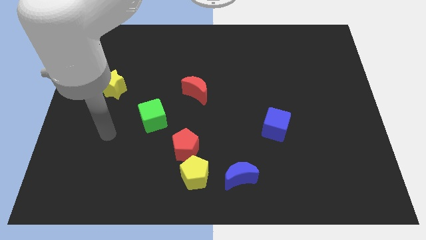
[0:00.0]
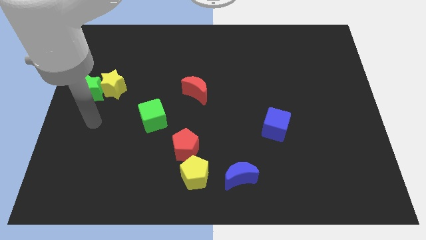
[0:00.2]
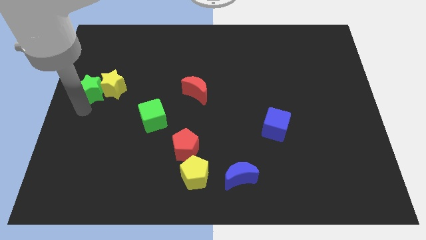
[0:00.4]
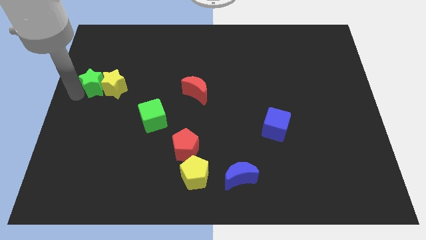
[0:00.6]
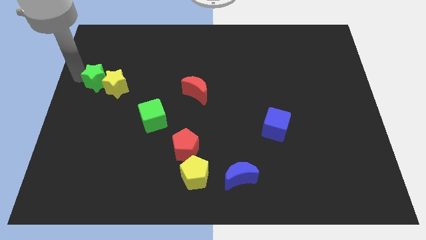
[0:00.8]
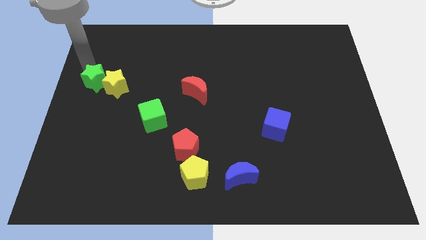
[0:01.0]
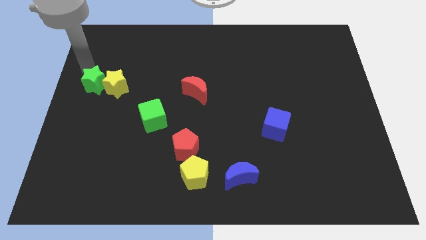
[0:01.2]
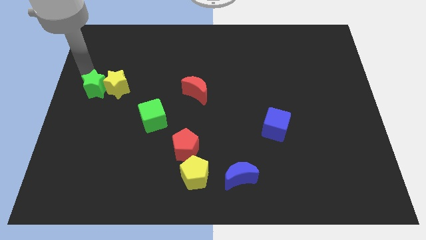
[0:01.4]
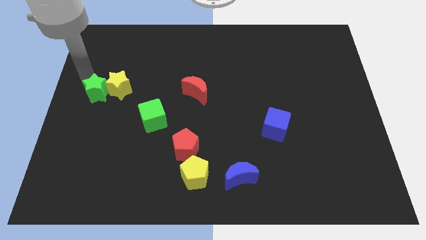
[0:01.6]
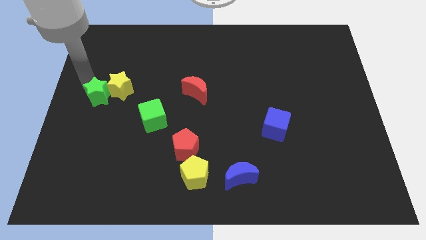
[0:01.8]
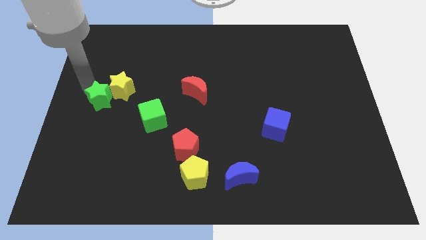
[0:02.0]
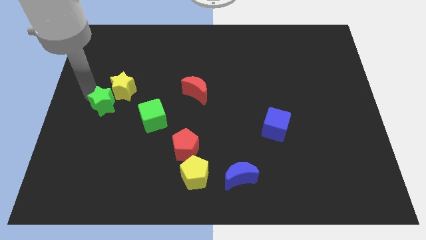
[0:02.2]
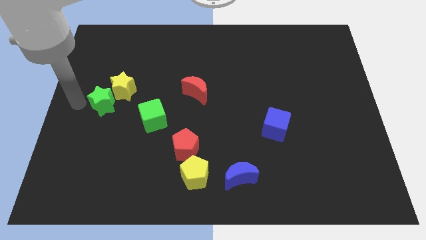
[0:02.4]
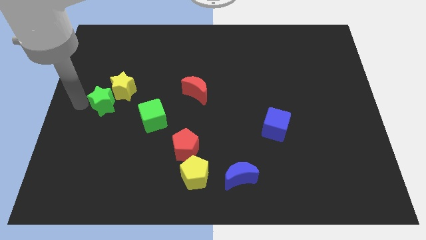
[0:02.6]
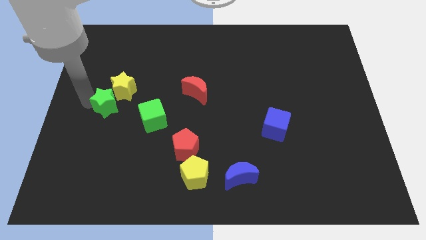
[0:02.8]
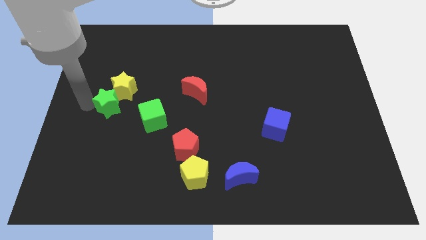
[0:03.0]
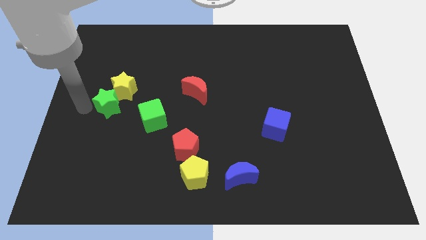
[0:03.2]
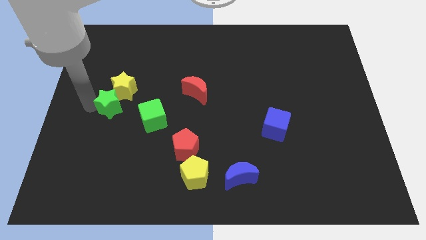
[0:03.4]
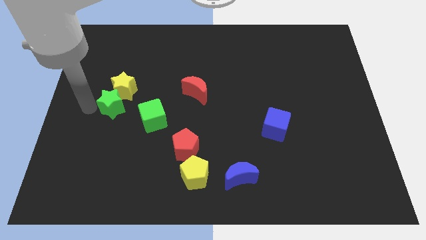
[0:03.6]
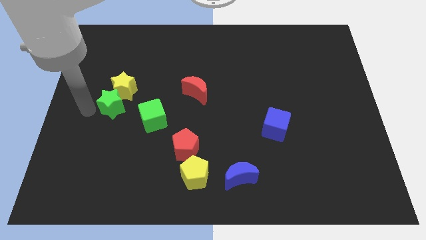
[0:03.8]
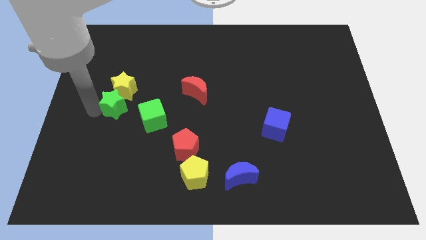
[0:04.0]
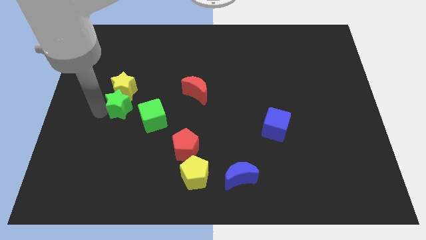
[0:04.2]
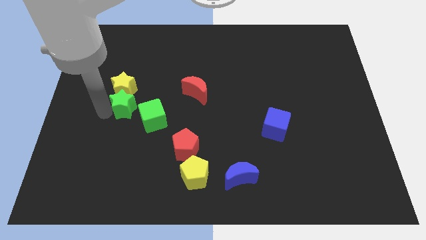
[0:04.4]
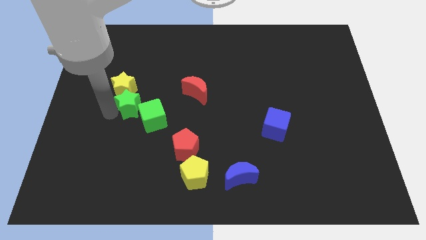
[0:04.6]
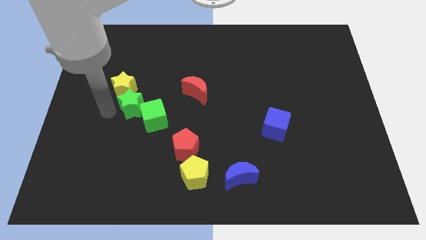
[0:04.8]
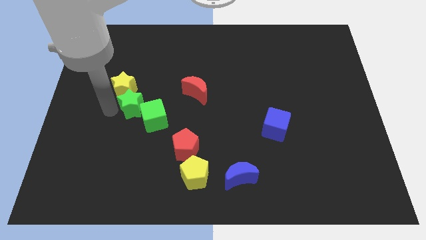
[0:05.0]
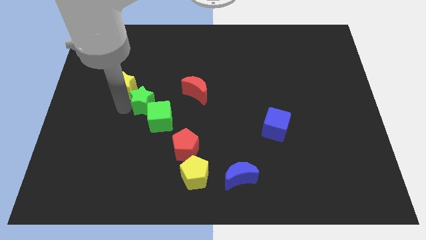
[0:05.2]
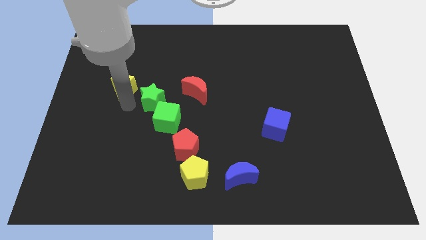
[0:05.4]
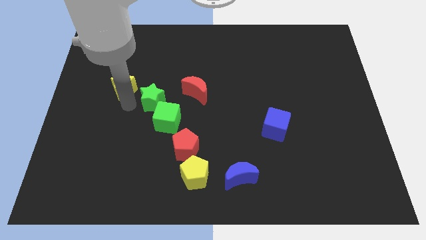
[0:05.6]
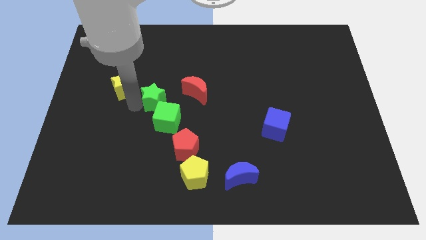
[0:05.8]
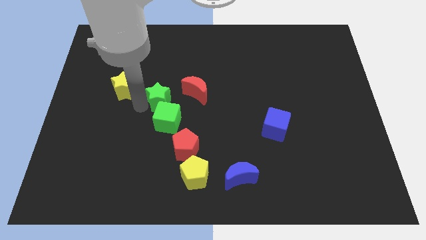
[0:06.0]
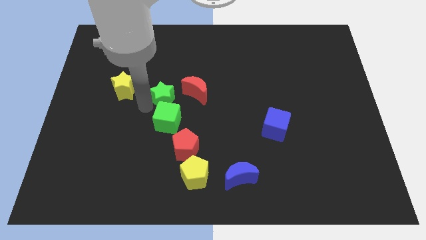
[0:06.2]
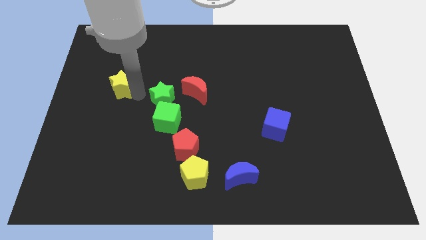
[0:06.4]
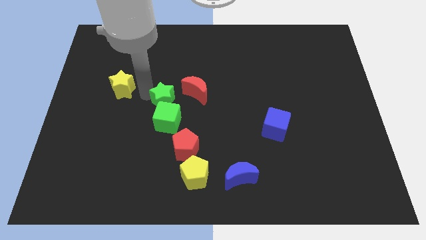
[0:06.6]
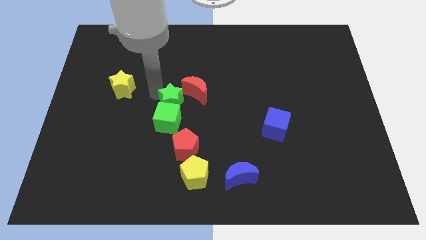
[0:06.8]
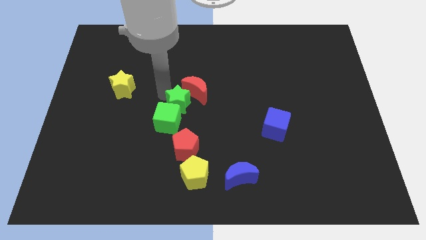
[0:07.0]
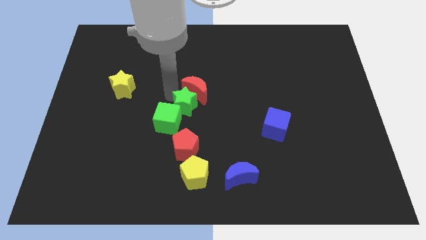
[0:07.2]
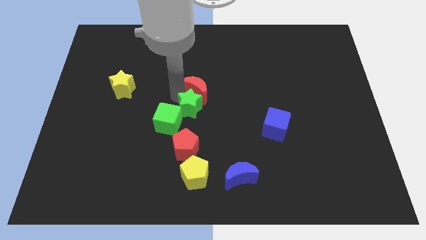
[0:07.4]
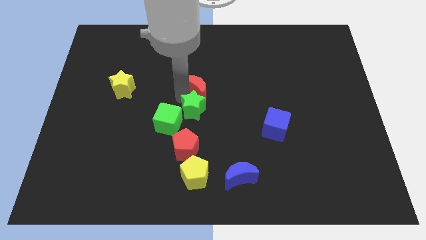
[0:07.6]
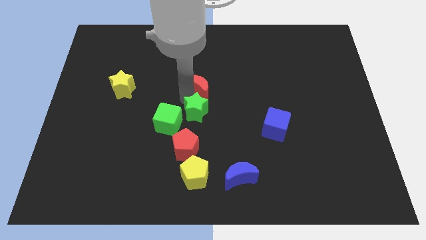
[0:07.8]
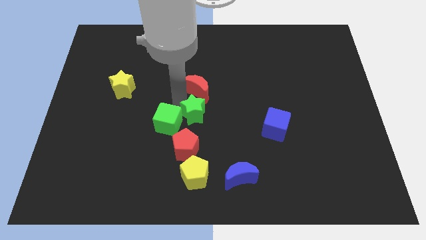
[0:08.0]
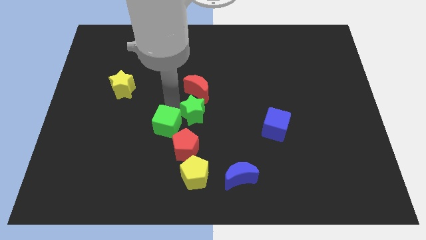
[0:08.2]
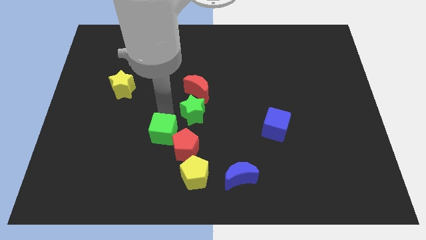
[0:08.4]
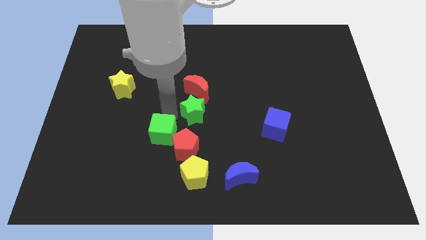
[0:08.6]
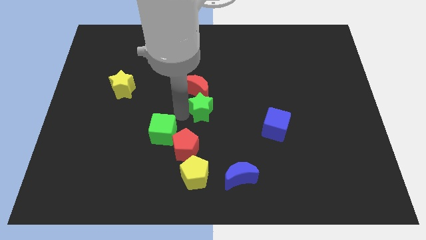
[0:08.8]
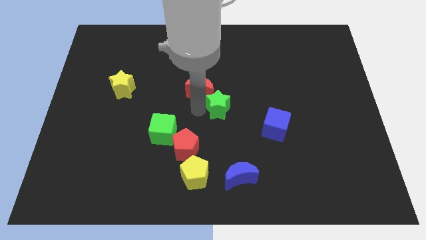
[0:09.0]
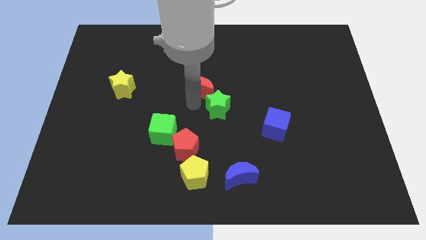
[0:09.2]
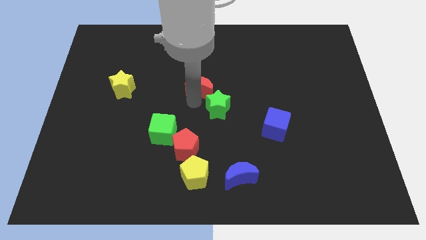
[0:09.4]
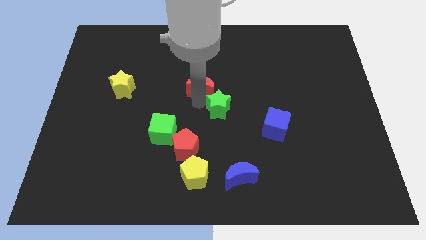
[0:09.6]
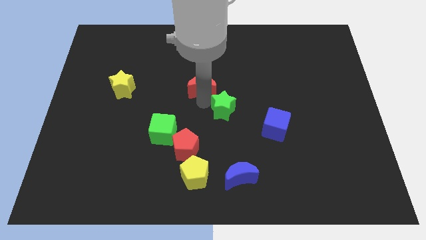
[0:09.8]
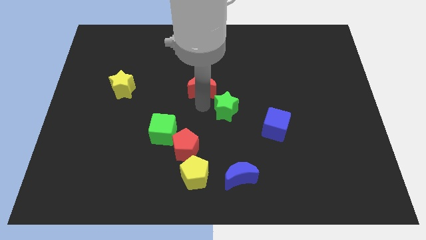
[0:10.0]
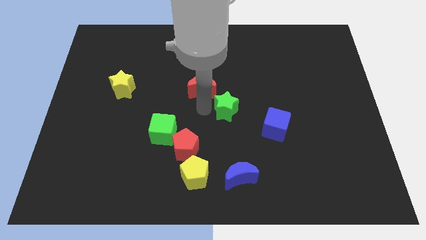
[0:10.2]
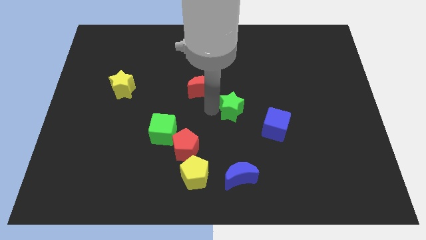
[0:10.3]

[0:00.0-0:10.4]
put the green star to the top left of the blue cube

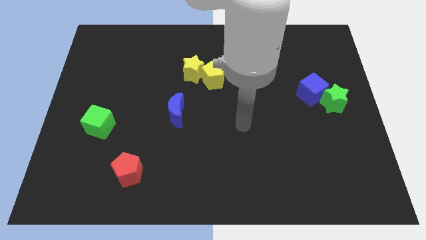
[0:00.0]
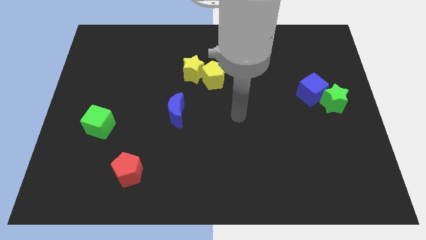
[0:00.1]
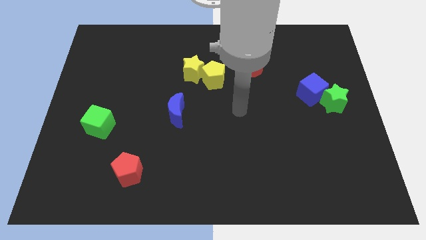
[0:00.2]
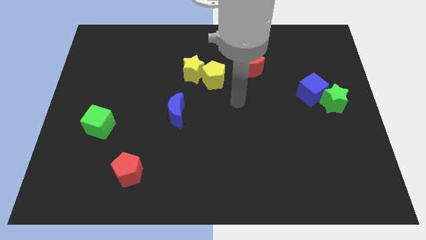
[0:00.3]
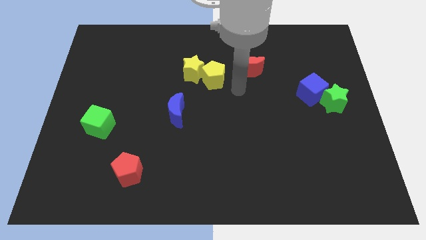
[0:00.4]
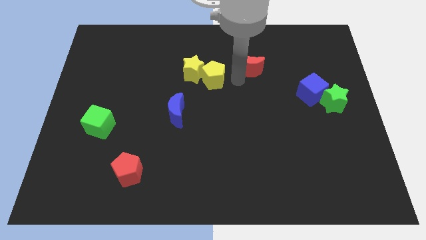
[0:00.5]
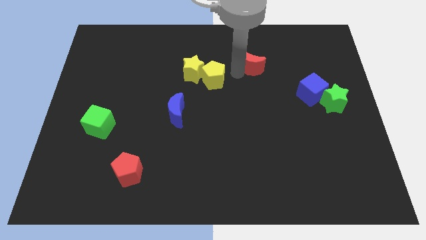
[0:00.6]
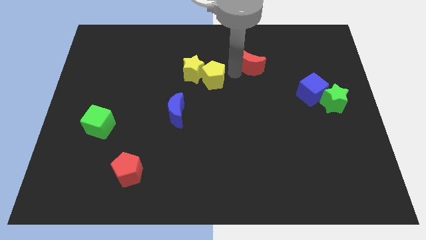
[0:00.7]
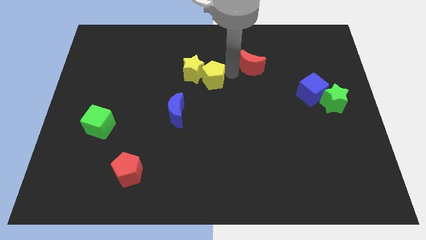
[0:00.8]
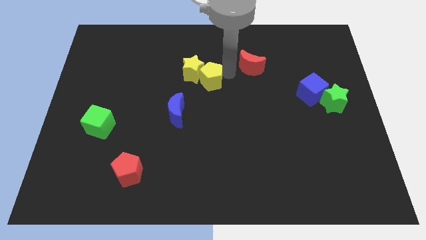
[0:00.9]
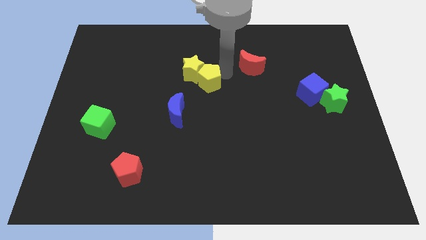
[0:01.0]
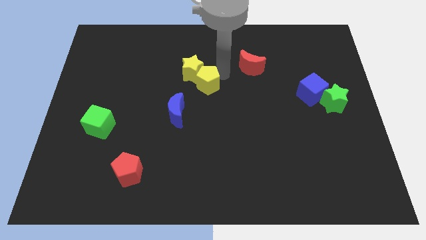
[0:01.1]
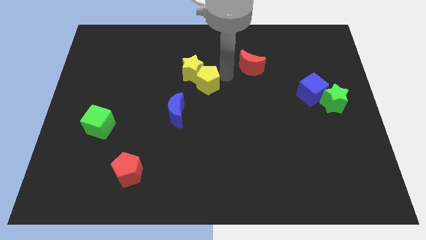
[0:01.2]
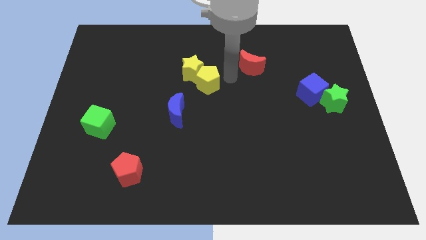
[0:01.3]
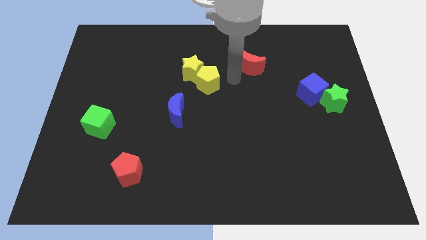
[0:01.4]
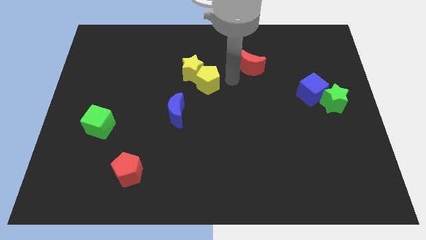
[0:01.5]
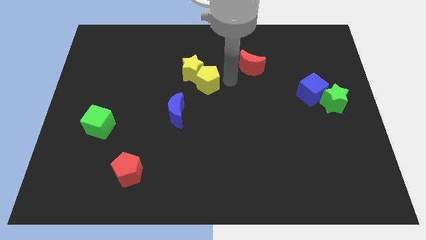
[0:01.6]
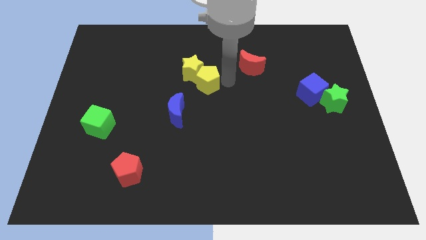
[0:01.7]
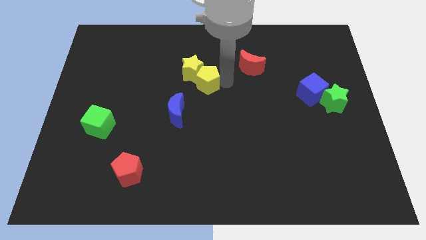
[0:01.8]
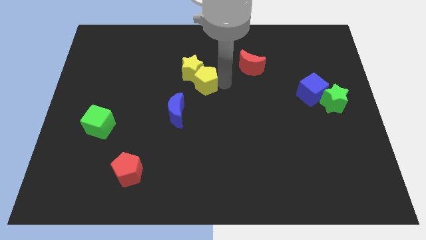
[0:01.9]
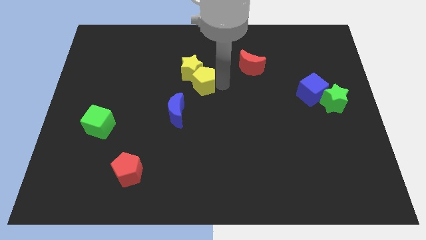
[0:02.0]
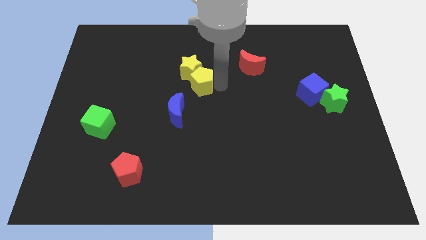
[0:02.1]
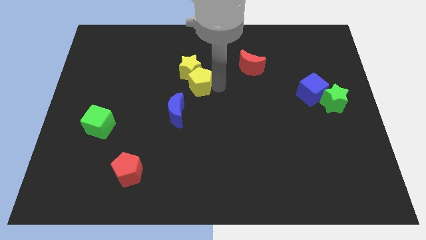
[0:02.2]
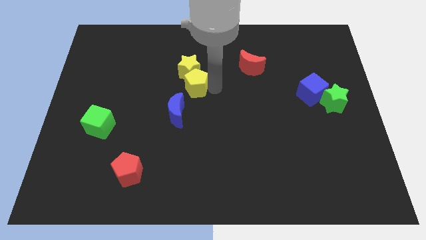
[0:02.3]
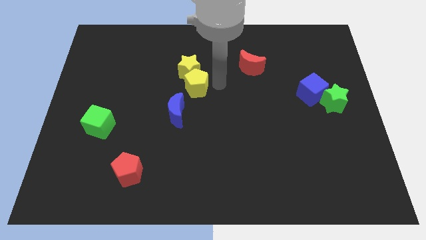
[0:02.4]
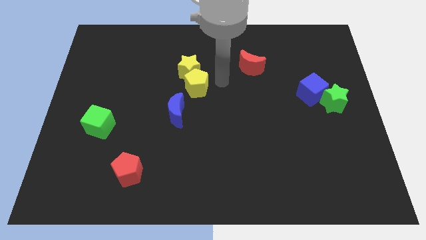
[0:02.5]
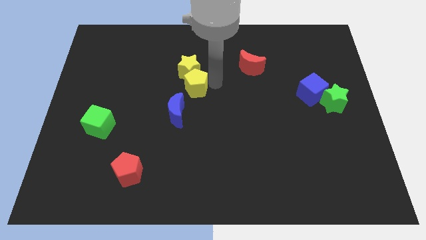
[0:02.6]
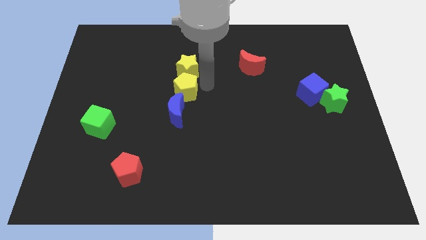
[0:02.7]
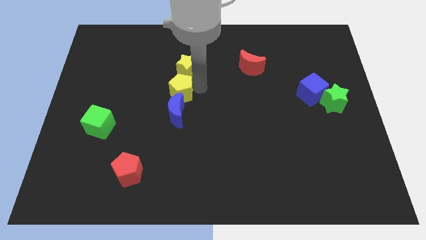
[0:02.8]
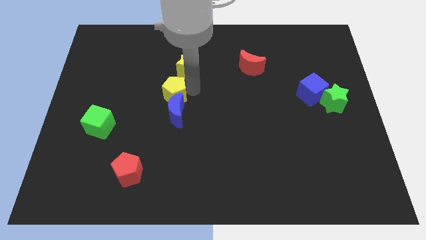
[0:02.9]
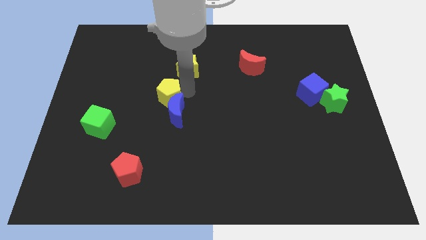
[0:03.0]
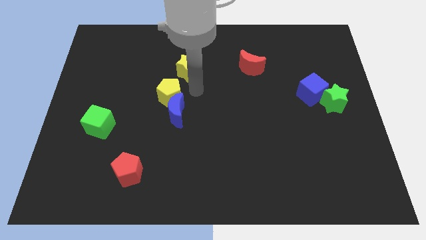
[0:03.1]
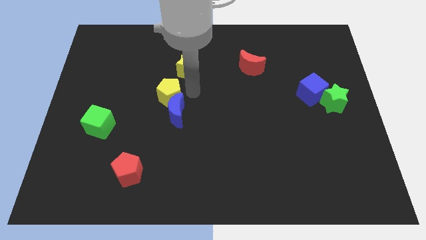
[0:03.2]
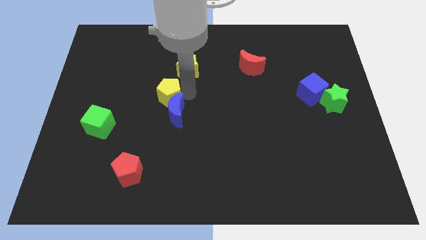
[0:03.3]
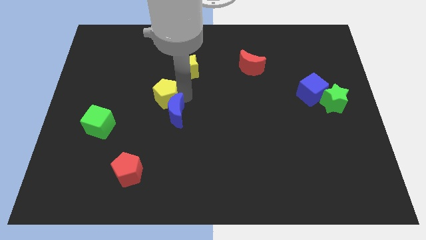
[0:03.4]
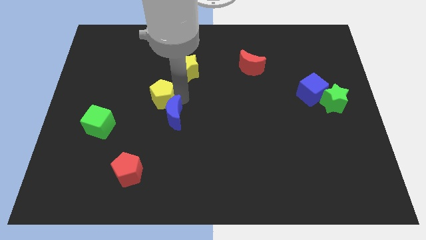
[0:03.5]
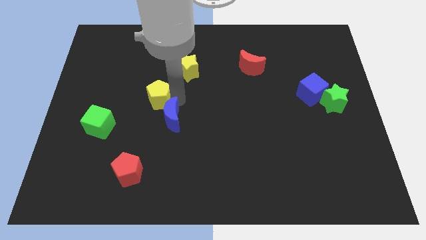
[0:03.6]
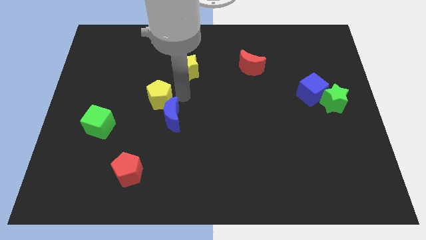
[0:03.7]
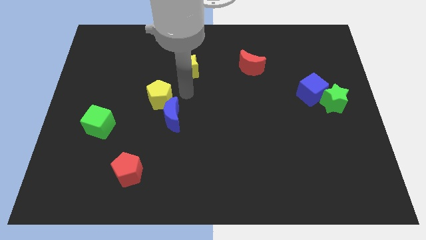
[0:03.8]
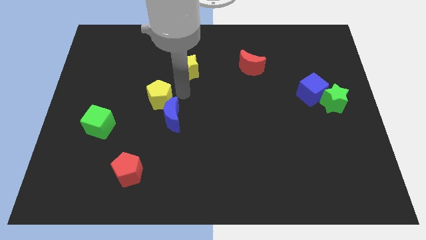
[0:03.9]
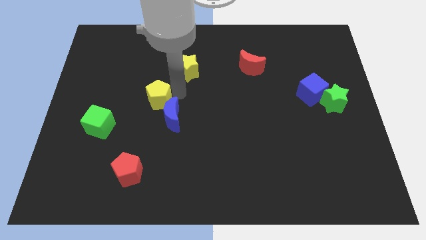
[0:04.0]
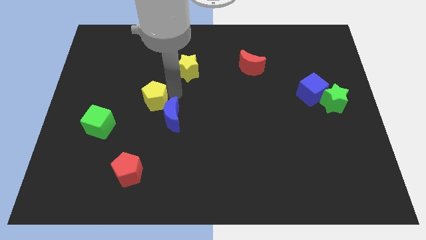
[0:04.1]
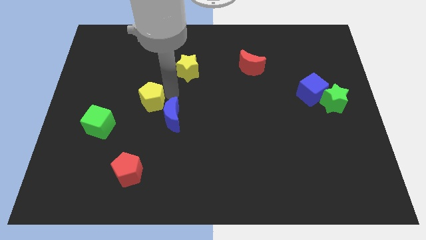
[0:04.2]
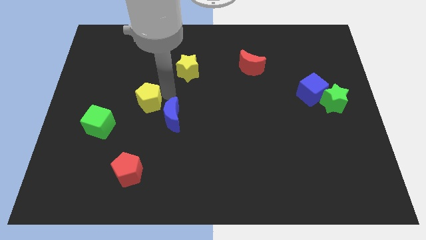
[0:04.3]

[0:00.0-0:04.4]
put the yellow pentagon diagonally up and to the right of the green cube
